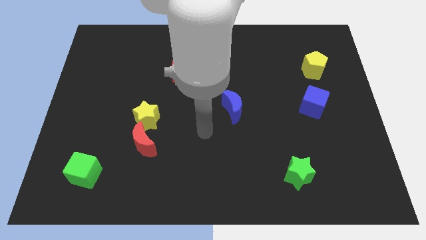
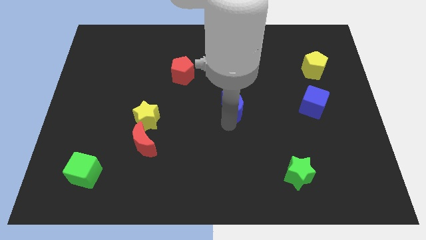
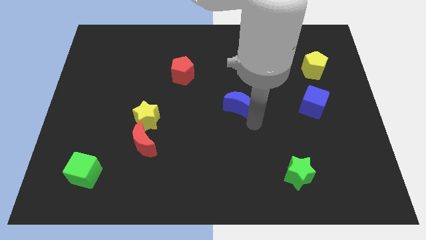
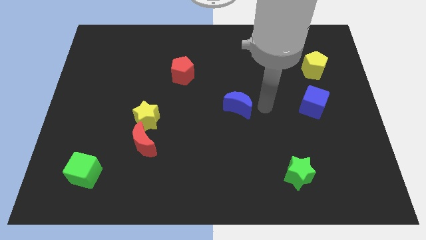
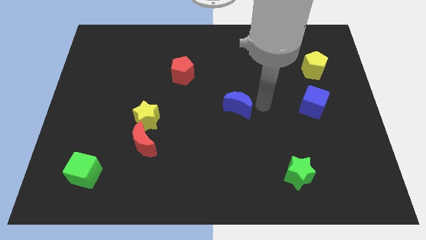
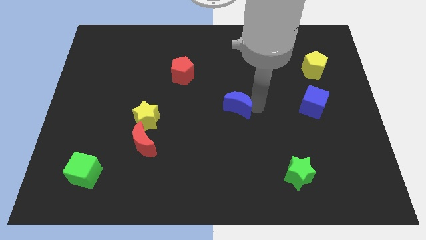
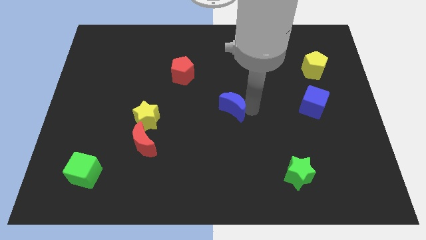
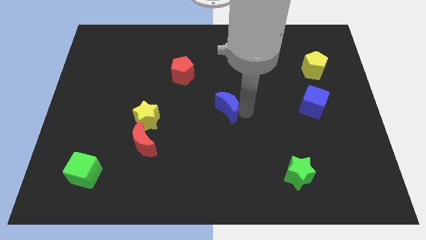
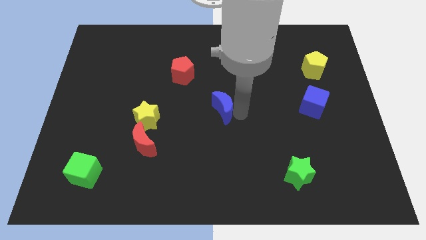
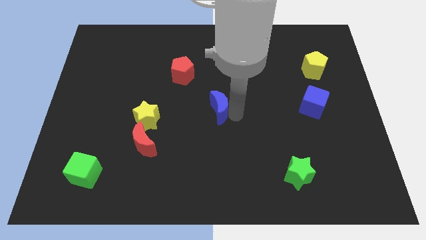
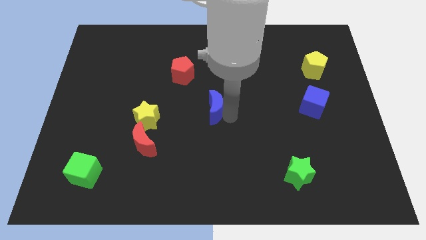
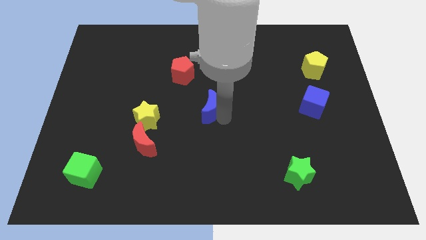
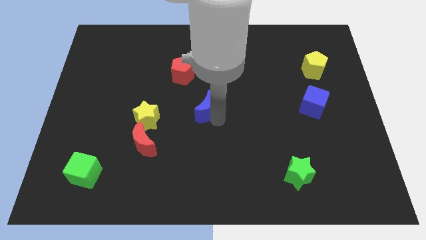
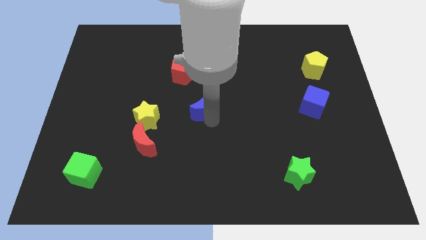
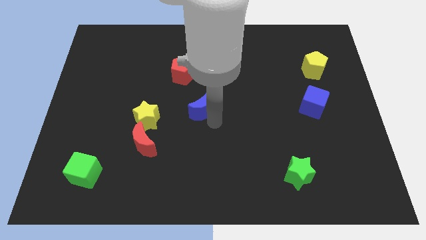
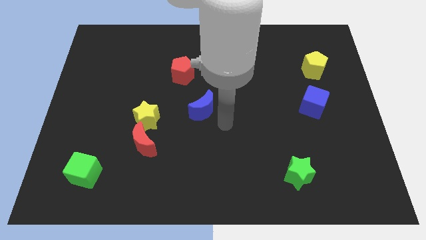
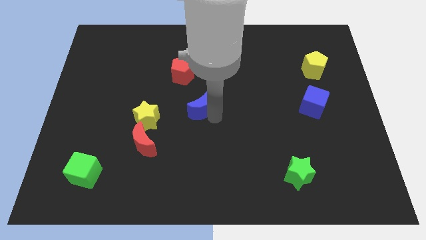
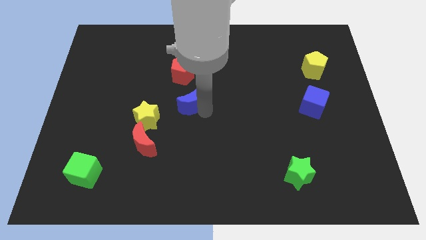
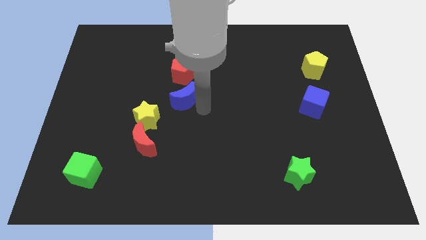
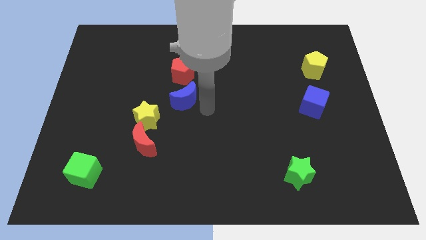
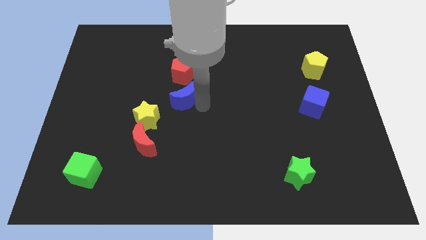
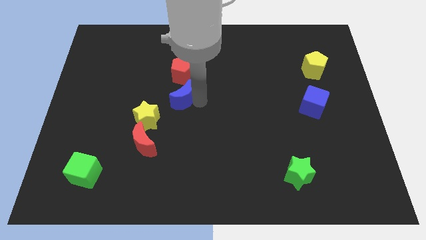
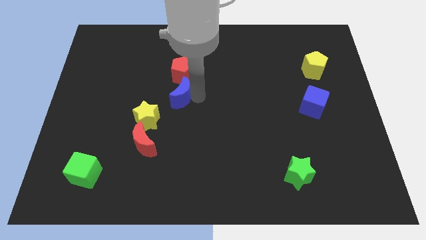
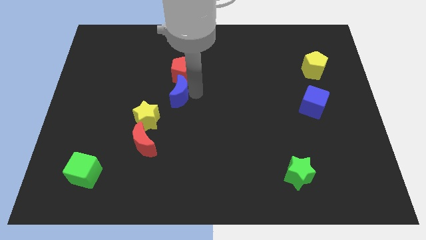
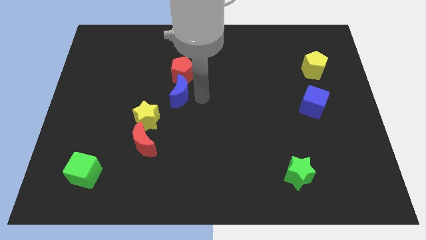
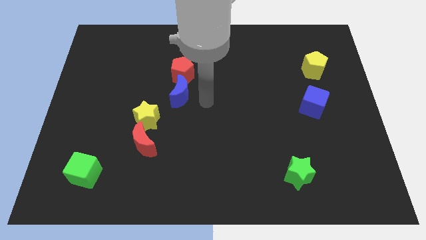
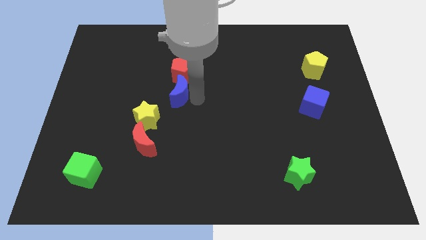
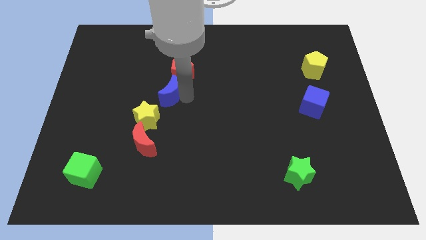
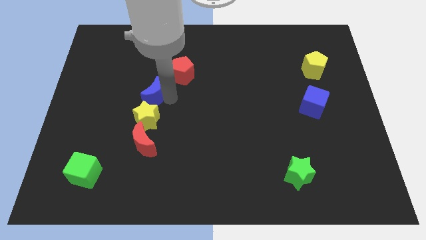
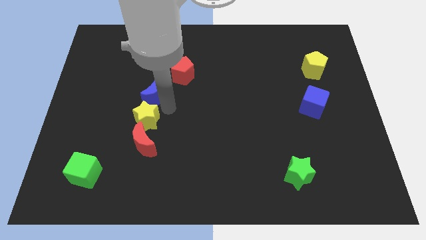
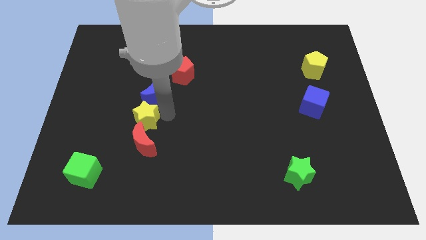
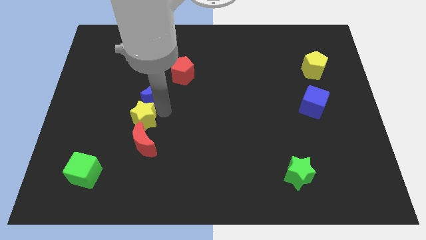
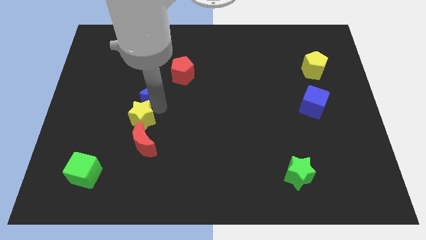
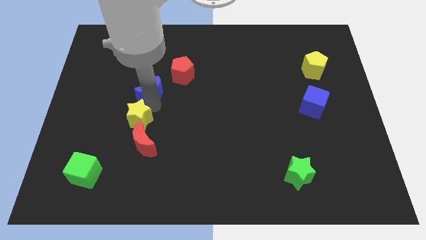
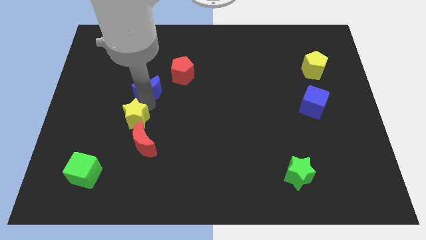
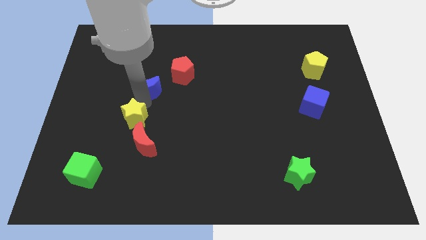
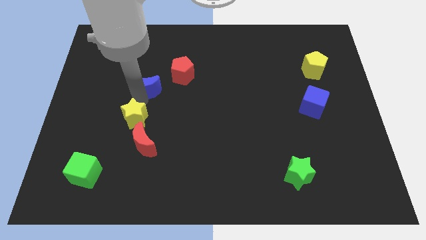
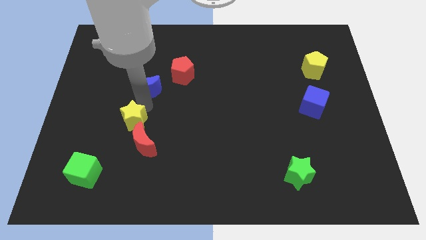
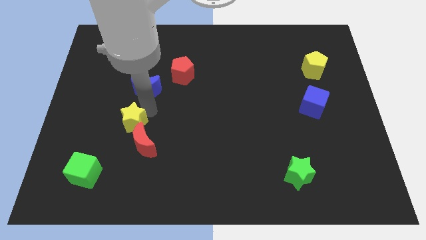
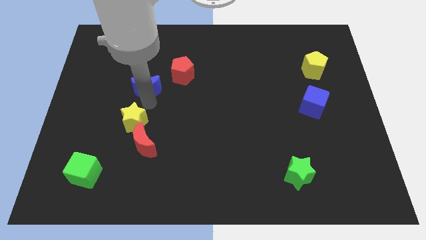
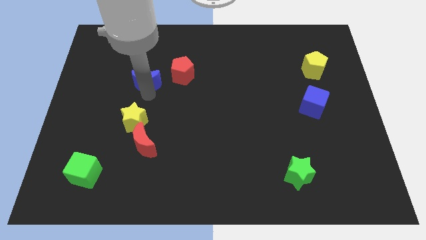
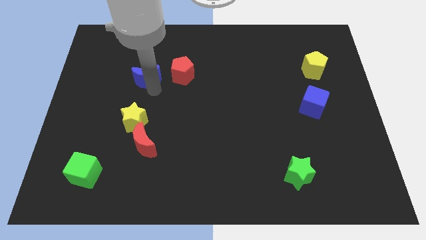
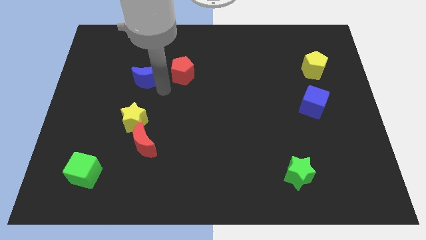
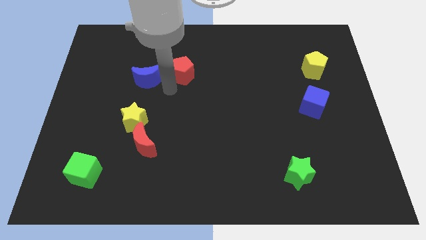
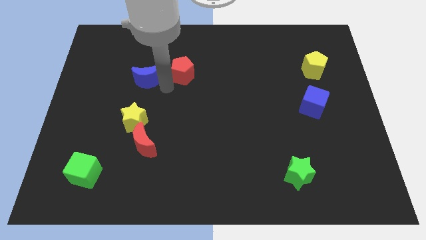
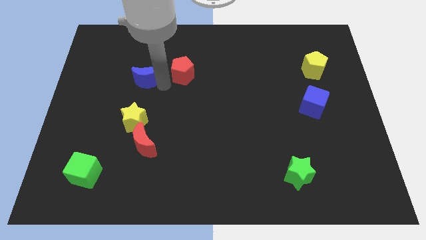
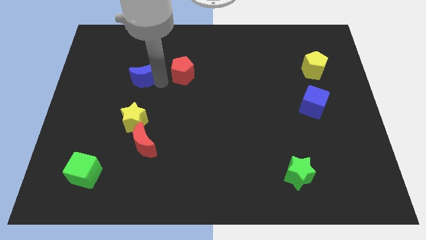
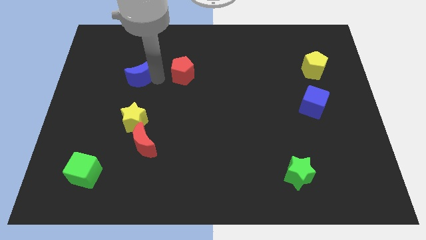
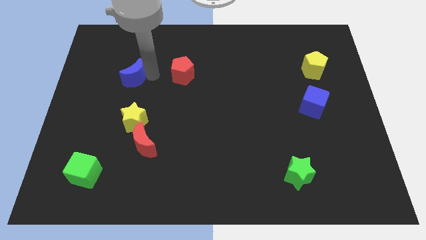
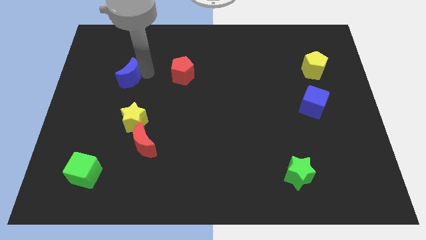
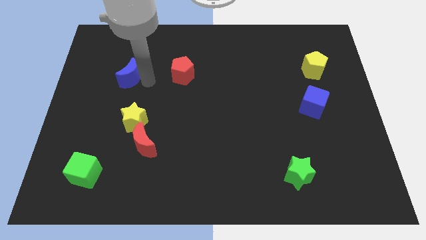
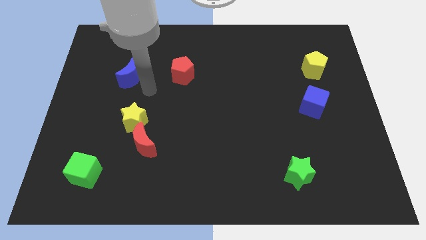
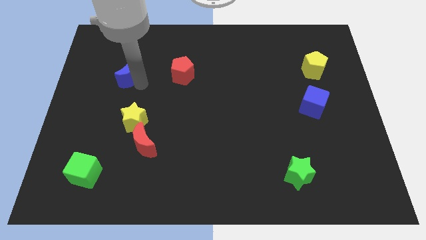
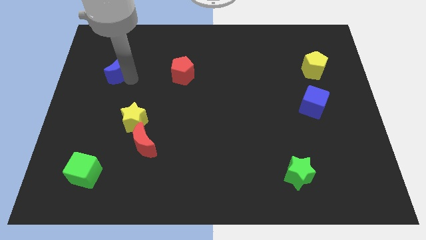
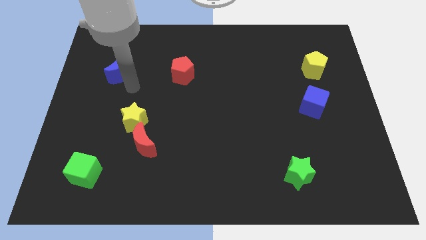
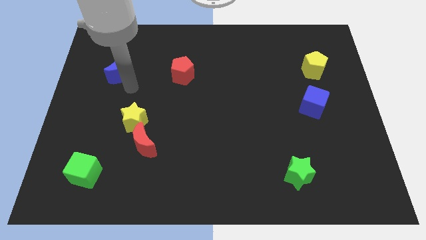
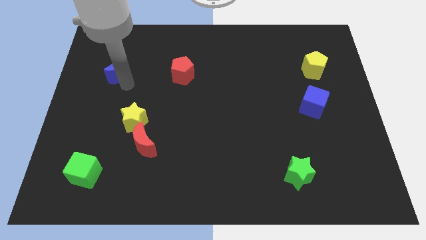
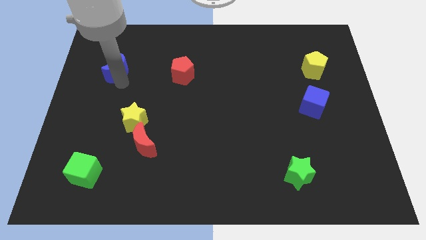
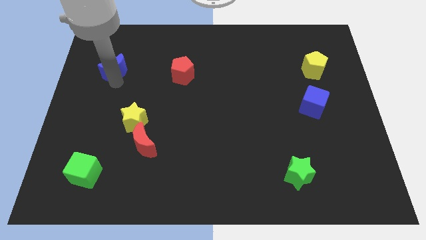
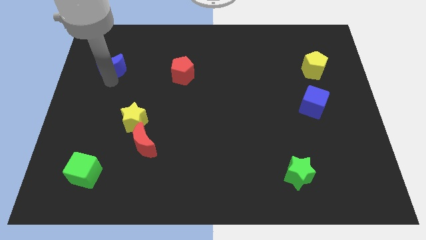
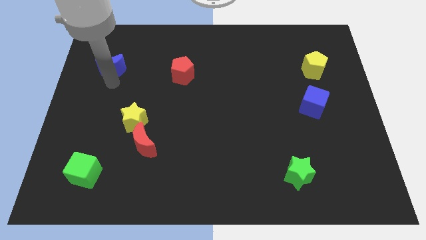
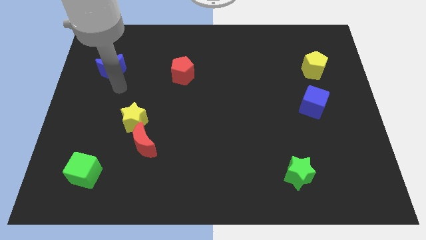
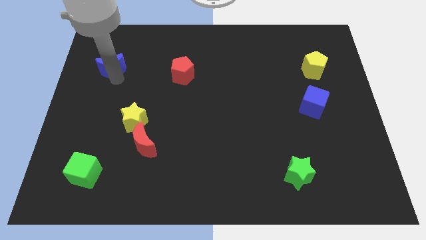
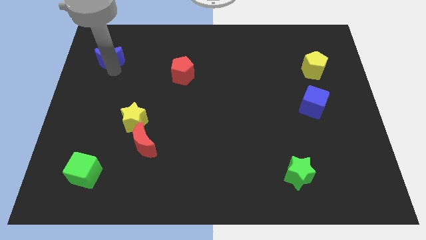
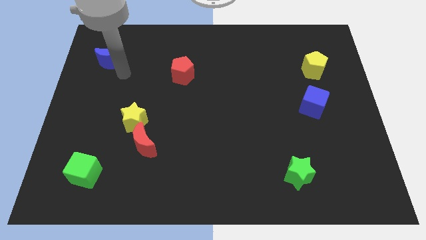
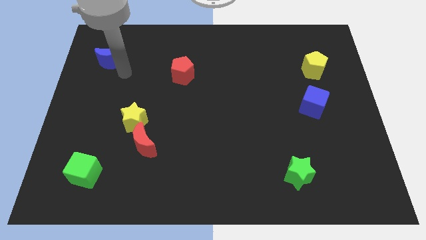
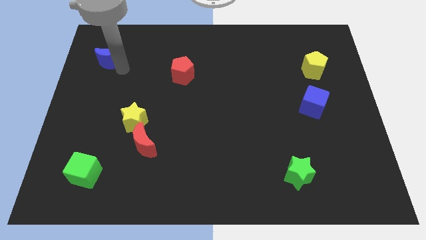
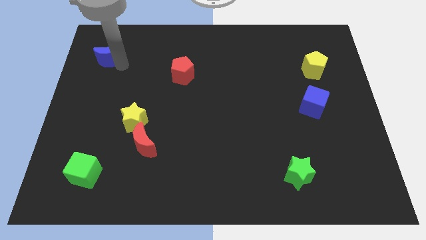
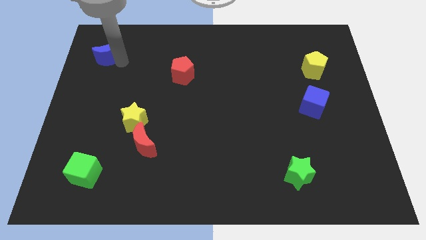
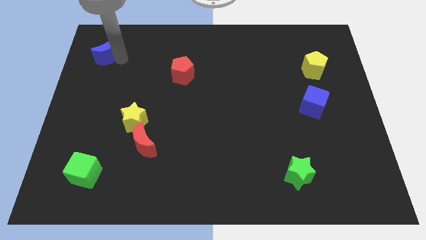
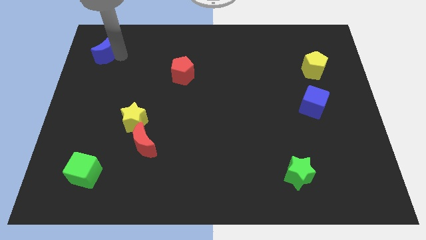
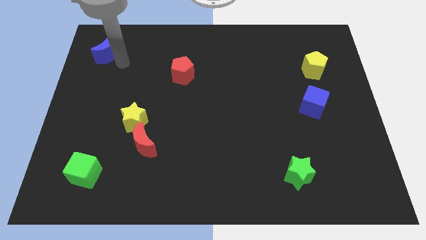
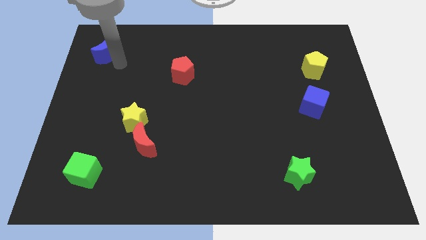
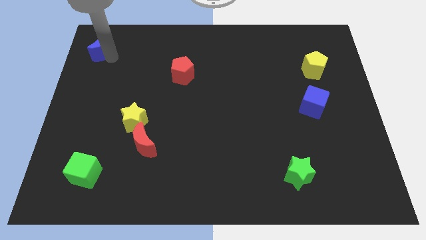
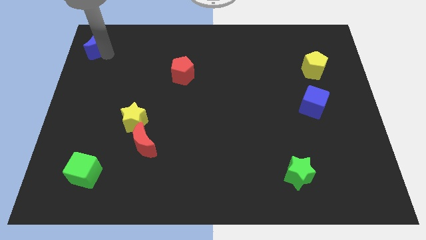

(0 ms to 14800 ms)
slide the blue moon to the top left corner
